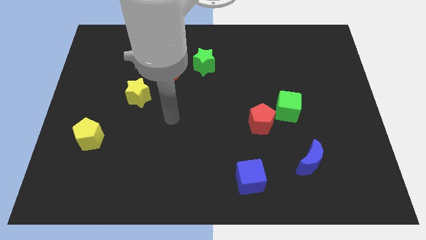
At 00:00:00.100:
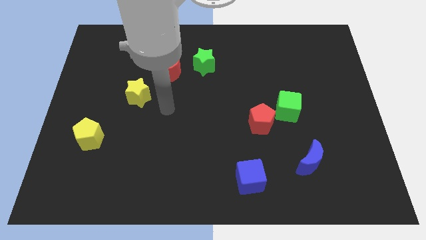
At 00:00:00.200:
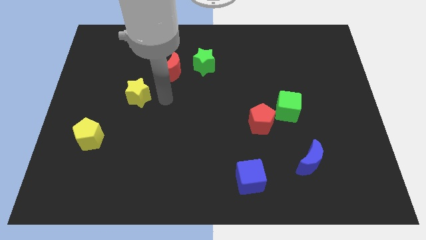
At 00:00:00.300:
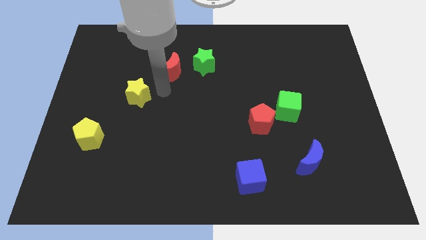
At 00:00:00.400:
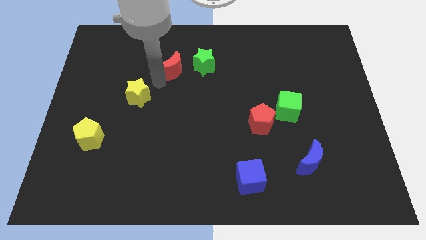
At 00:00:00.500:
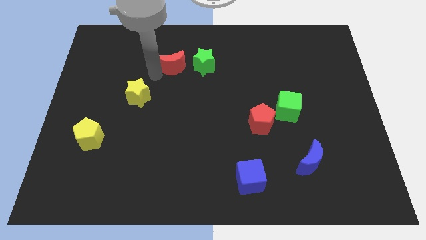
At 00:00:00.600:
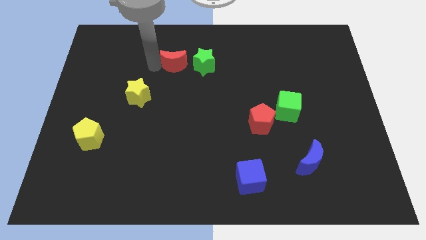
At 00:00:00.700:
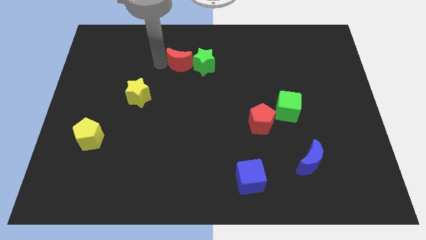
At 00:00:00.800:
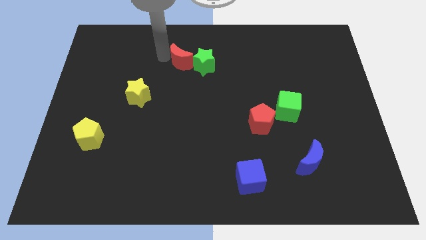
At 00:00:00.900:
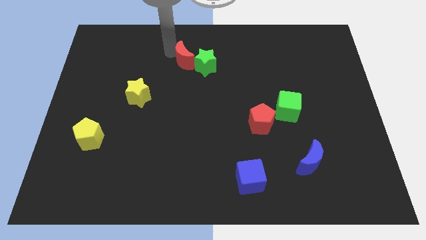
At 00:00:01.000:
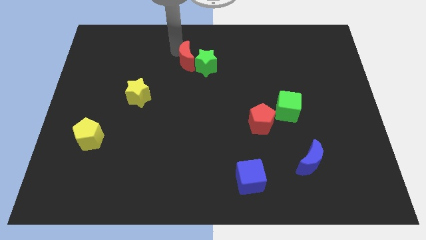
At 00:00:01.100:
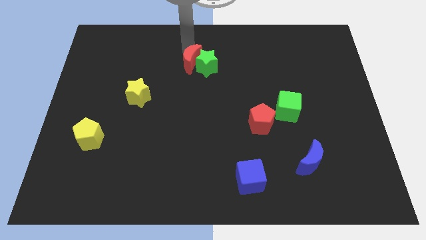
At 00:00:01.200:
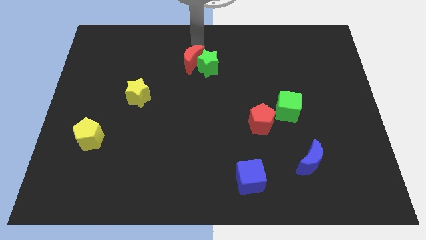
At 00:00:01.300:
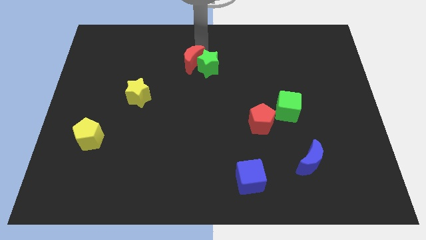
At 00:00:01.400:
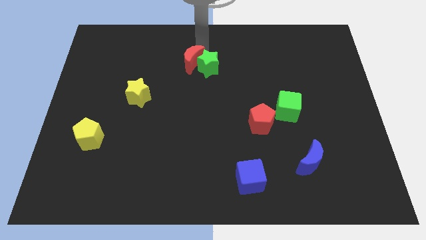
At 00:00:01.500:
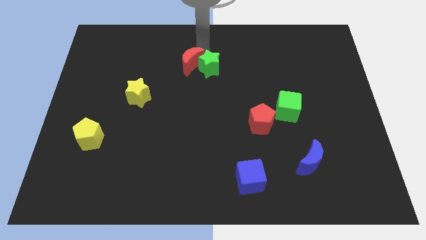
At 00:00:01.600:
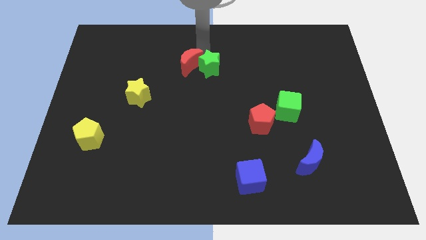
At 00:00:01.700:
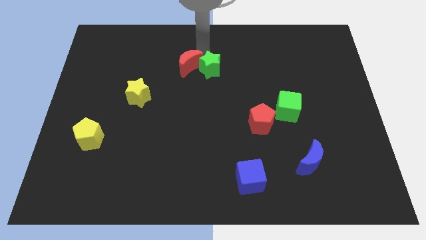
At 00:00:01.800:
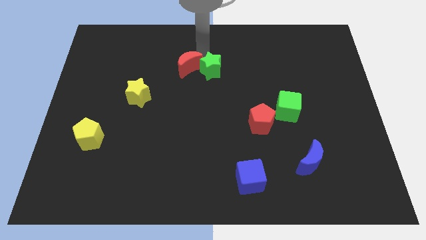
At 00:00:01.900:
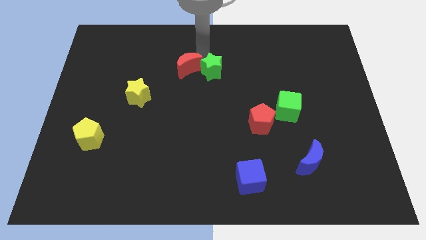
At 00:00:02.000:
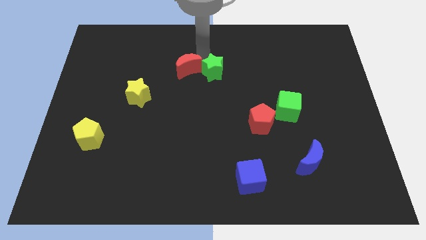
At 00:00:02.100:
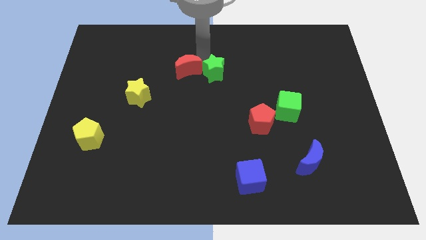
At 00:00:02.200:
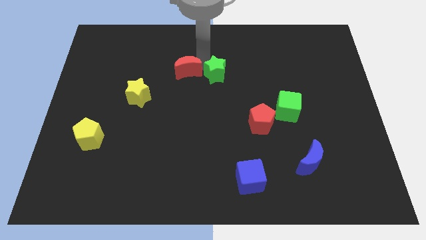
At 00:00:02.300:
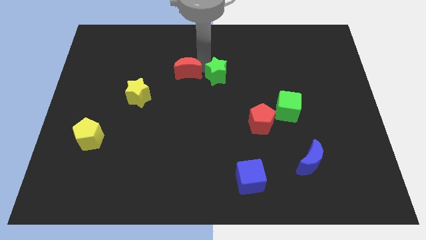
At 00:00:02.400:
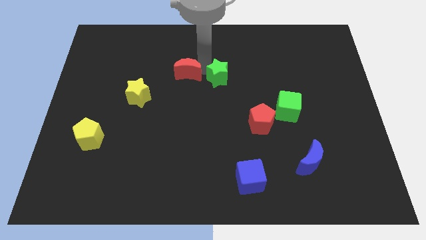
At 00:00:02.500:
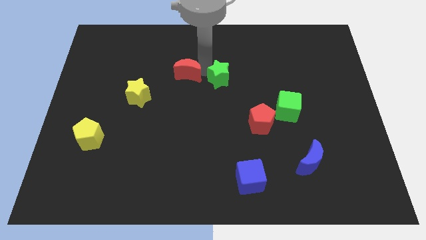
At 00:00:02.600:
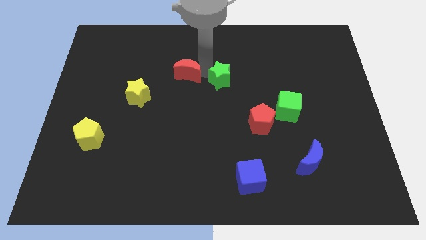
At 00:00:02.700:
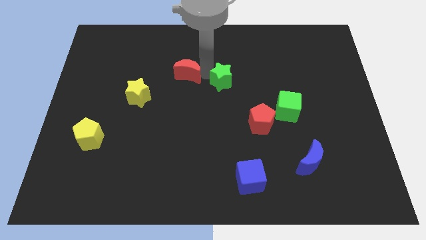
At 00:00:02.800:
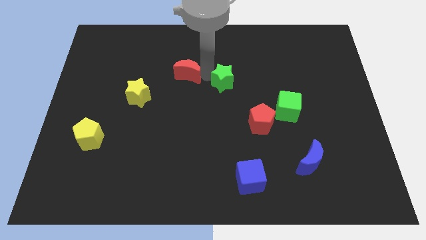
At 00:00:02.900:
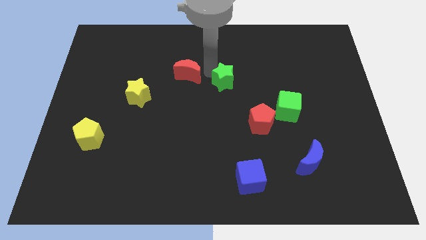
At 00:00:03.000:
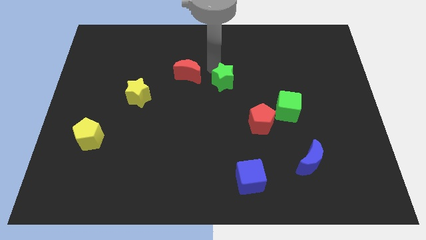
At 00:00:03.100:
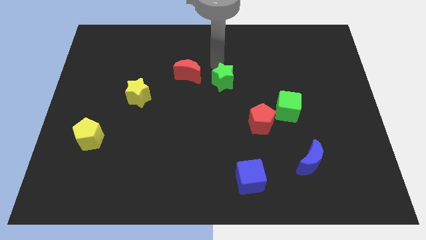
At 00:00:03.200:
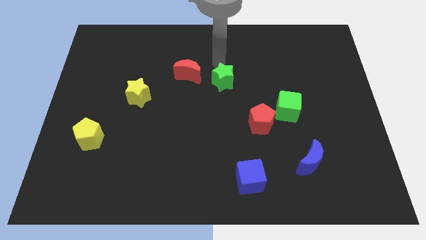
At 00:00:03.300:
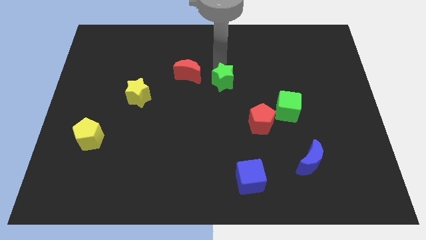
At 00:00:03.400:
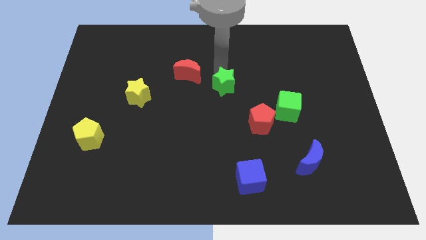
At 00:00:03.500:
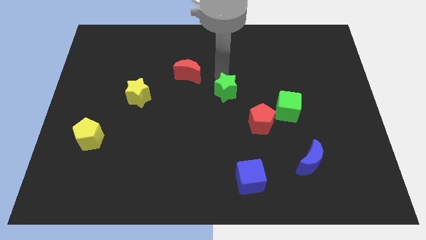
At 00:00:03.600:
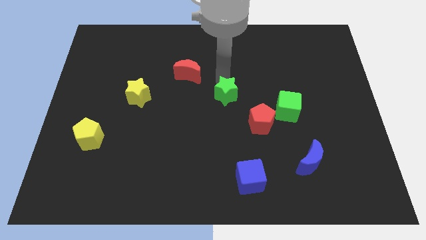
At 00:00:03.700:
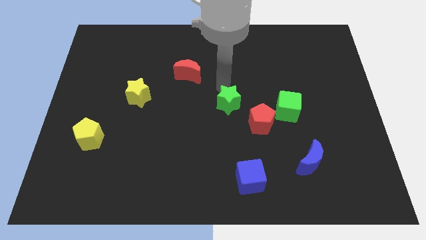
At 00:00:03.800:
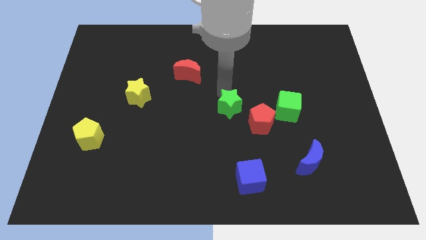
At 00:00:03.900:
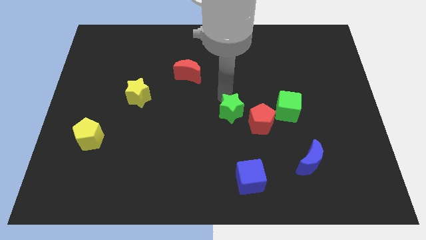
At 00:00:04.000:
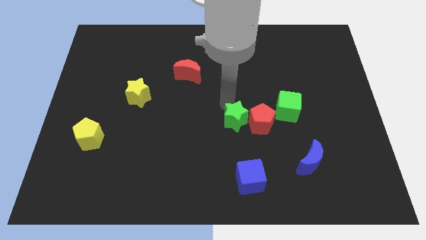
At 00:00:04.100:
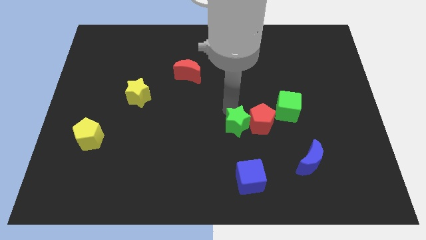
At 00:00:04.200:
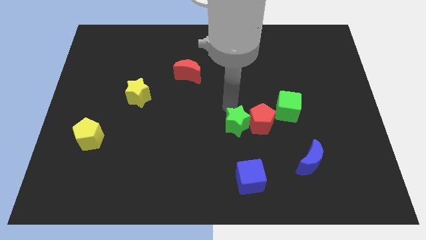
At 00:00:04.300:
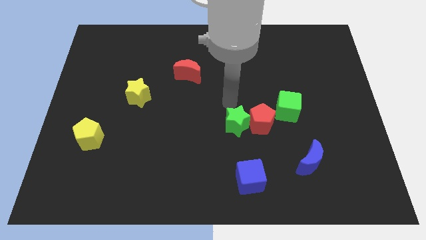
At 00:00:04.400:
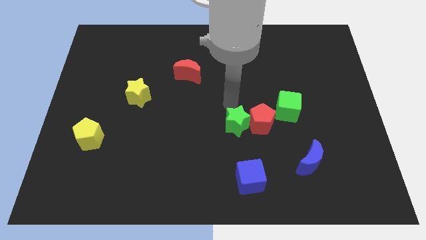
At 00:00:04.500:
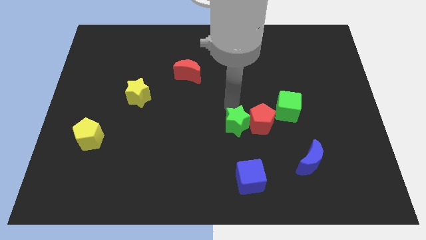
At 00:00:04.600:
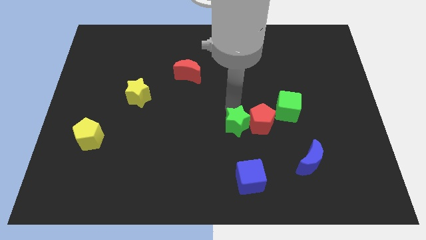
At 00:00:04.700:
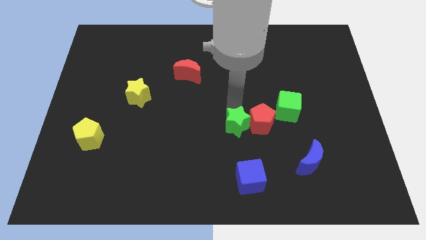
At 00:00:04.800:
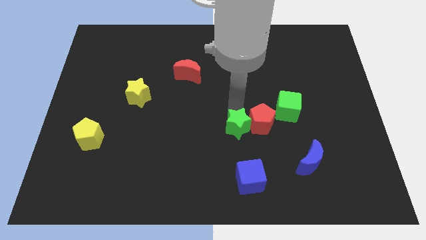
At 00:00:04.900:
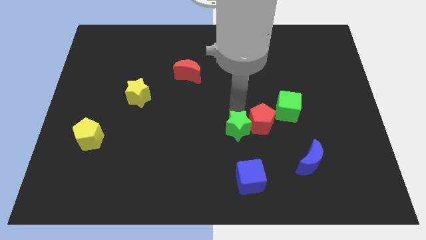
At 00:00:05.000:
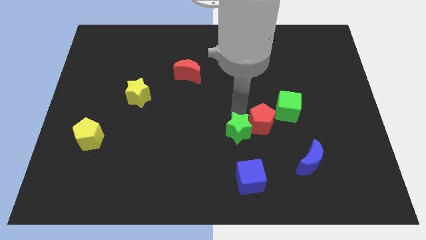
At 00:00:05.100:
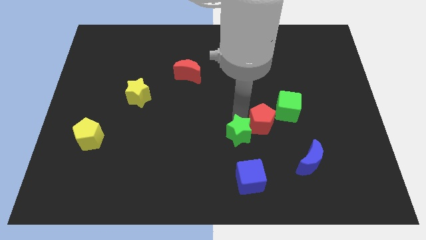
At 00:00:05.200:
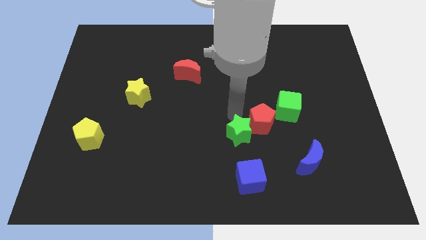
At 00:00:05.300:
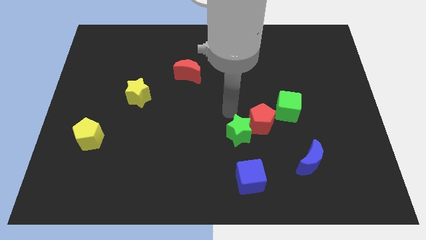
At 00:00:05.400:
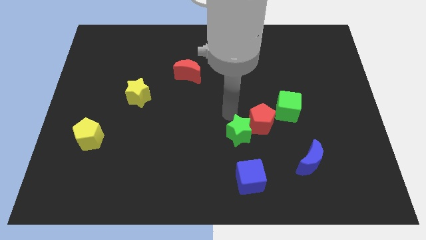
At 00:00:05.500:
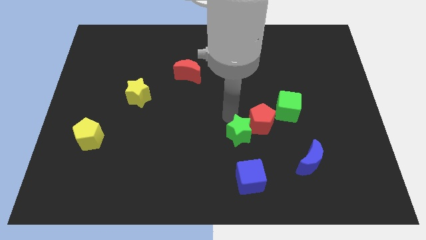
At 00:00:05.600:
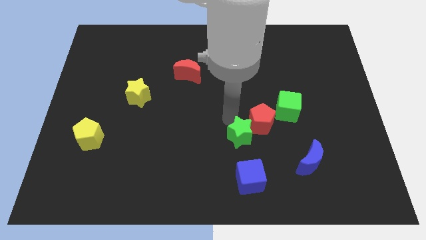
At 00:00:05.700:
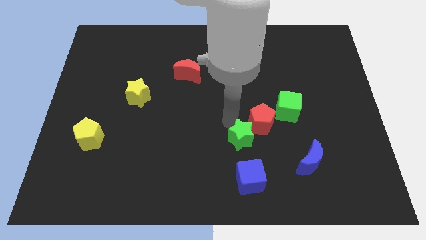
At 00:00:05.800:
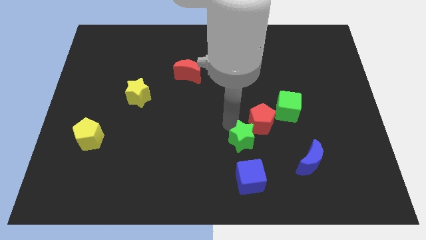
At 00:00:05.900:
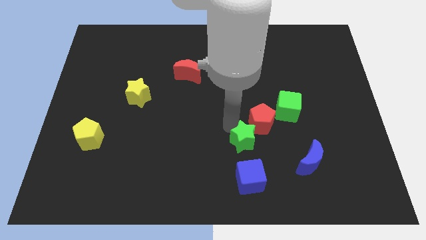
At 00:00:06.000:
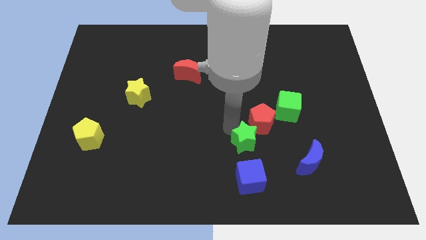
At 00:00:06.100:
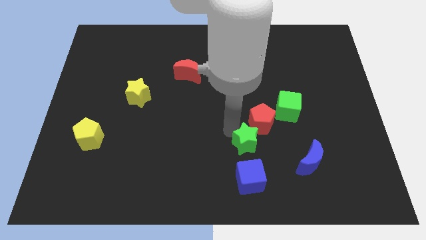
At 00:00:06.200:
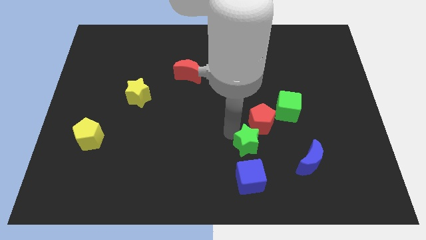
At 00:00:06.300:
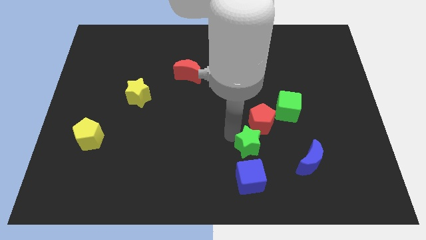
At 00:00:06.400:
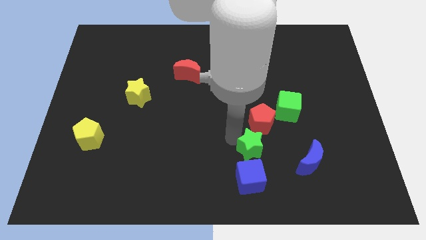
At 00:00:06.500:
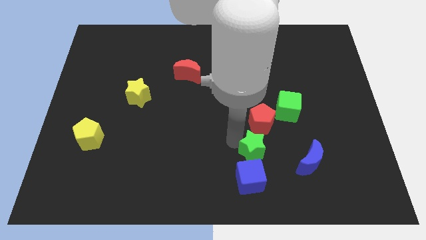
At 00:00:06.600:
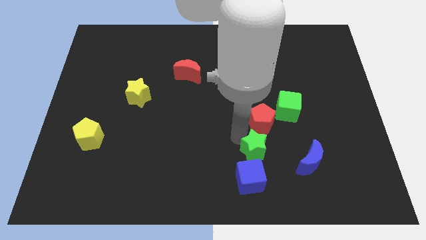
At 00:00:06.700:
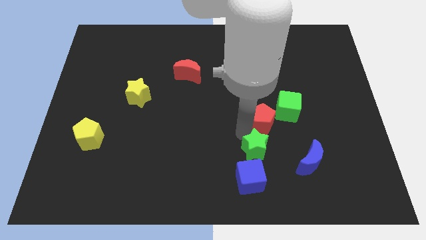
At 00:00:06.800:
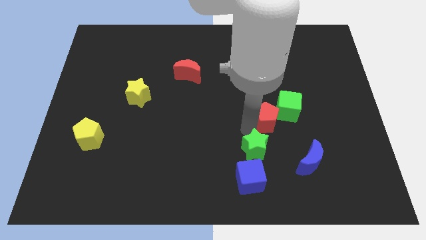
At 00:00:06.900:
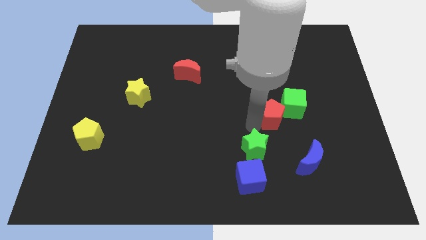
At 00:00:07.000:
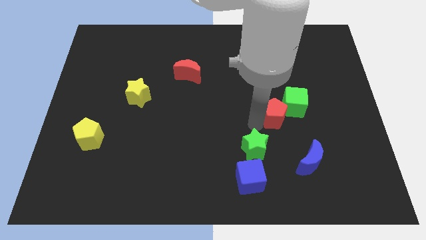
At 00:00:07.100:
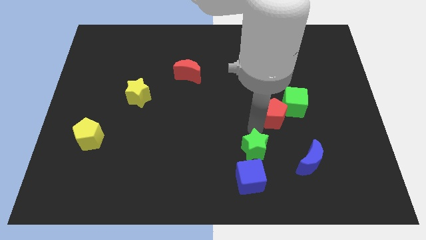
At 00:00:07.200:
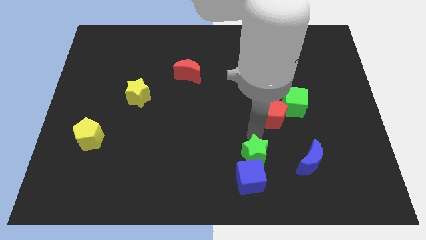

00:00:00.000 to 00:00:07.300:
put the green star to the blue cube

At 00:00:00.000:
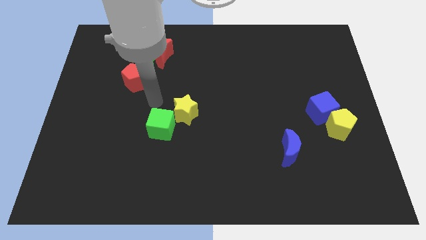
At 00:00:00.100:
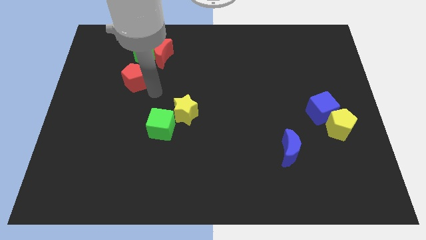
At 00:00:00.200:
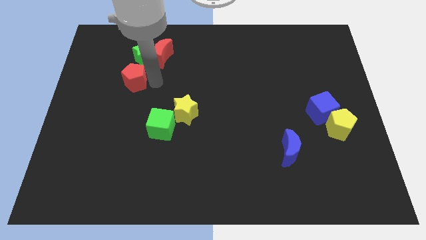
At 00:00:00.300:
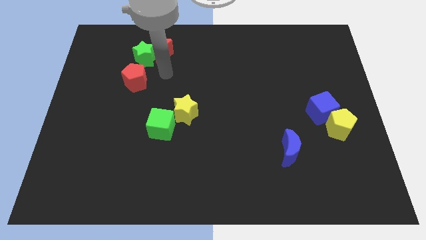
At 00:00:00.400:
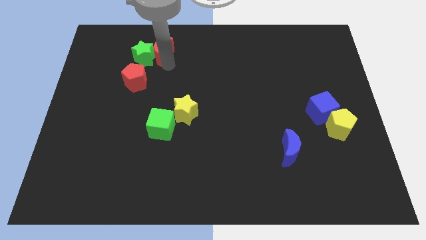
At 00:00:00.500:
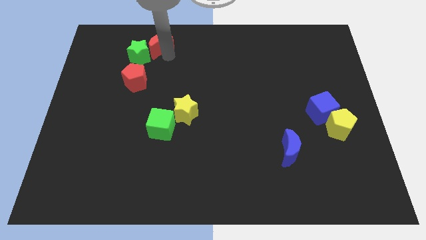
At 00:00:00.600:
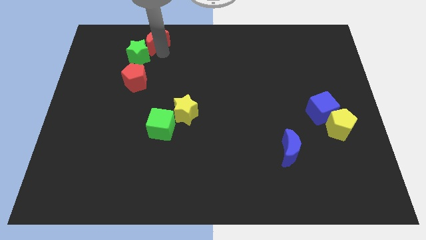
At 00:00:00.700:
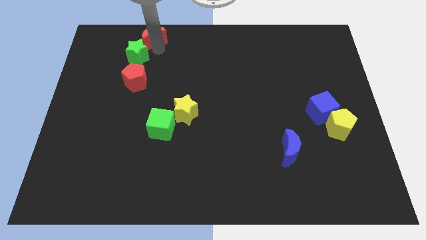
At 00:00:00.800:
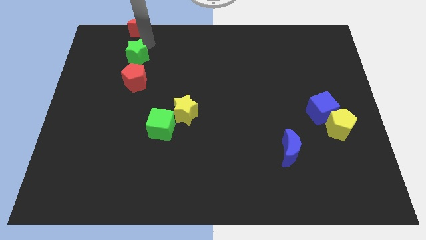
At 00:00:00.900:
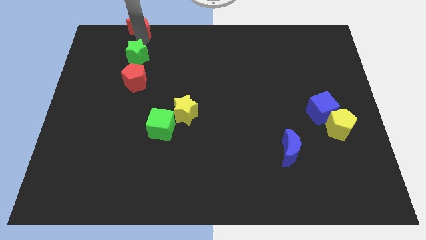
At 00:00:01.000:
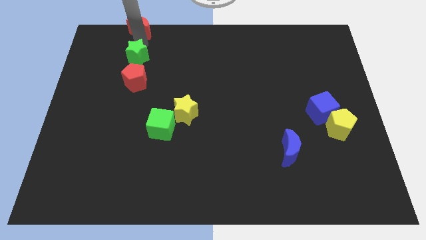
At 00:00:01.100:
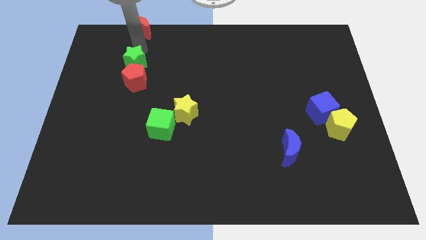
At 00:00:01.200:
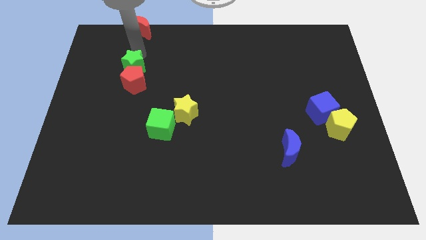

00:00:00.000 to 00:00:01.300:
put the green star close to the red pentagon
